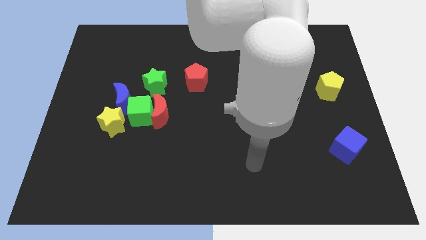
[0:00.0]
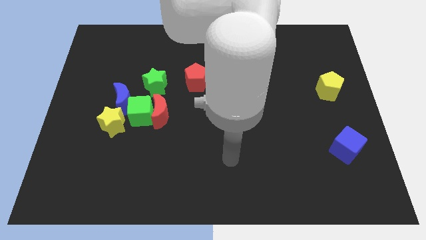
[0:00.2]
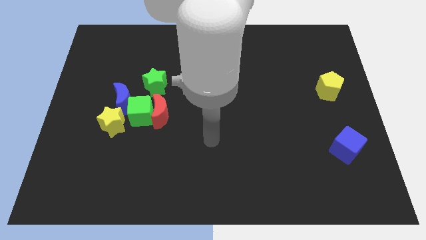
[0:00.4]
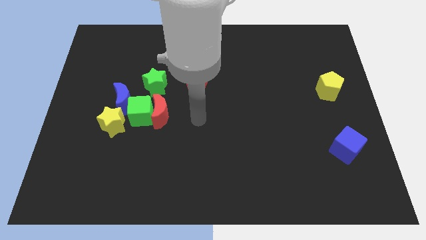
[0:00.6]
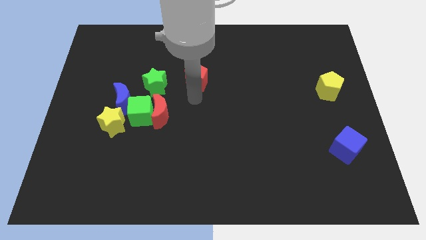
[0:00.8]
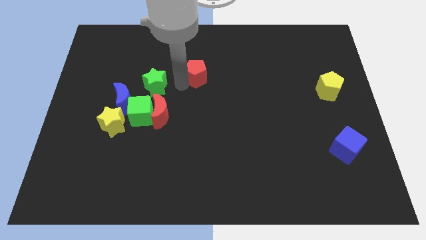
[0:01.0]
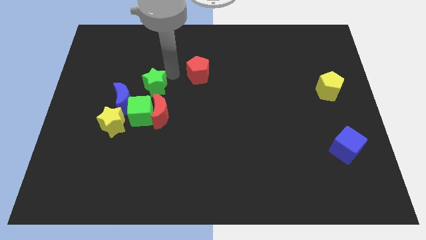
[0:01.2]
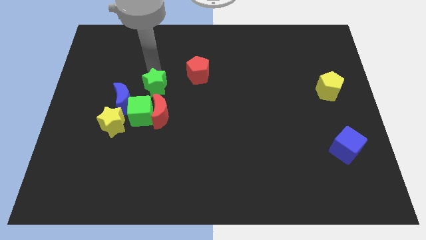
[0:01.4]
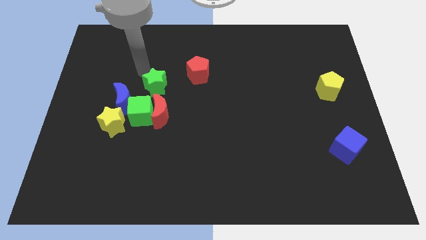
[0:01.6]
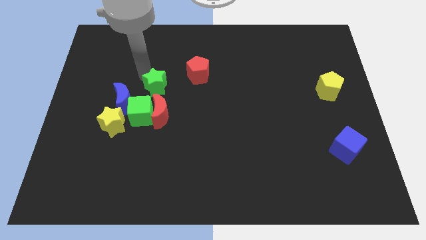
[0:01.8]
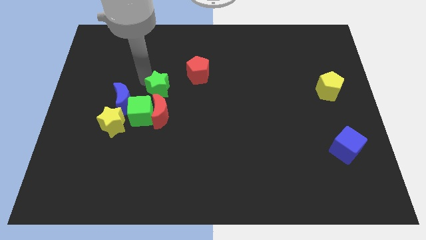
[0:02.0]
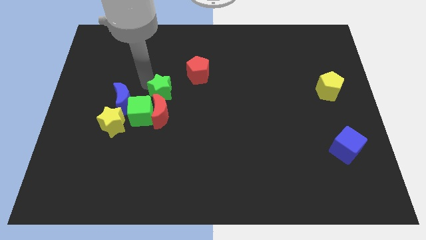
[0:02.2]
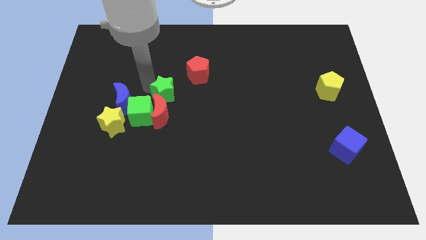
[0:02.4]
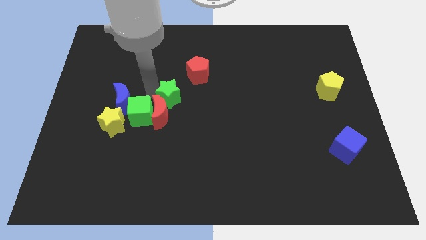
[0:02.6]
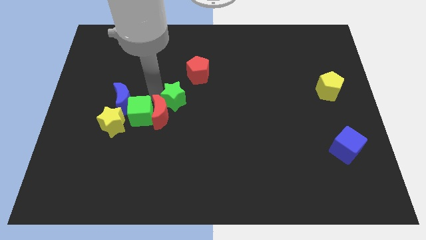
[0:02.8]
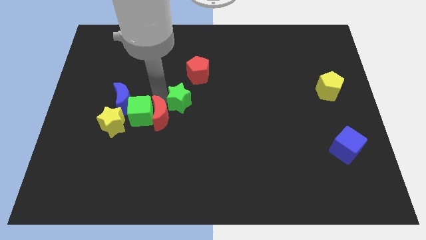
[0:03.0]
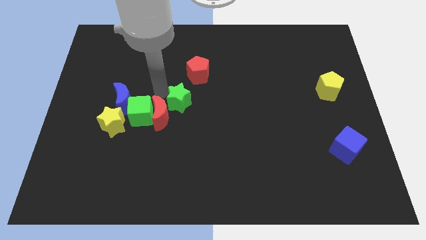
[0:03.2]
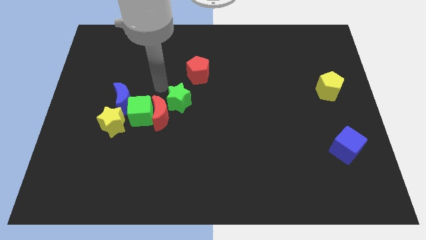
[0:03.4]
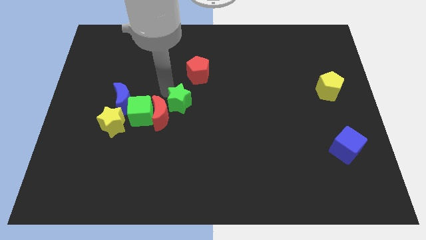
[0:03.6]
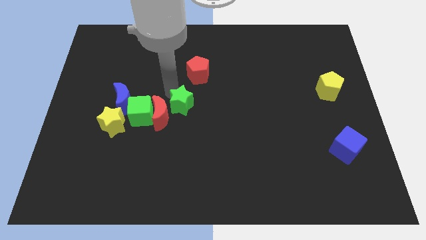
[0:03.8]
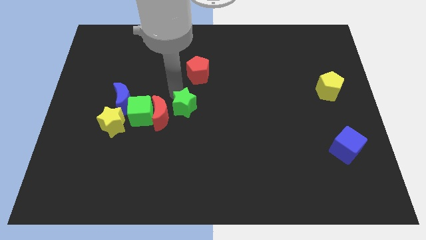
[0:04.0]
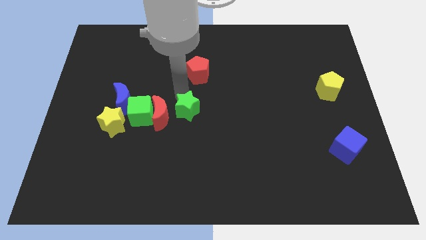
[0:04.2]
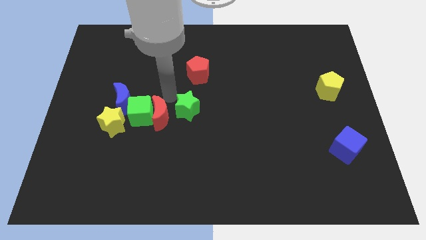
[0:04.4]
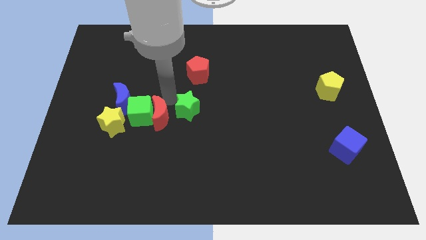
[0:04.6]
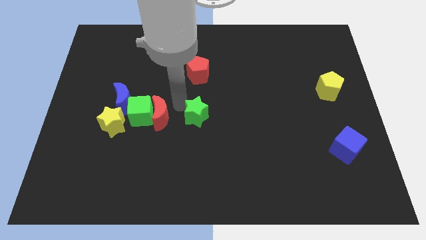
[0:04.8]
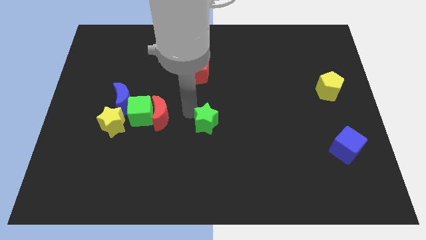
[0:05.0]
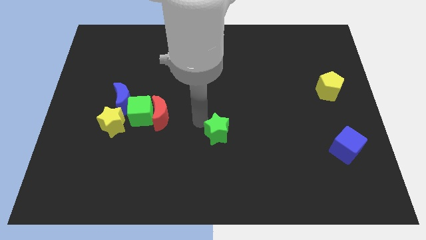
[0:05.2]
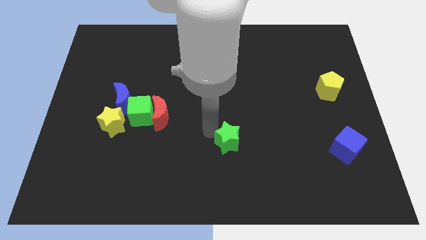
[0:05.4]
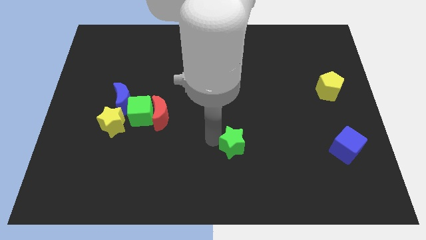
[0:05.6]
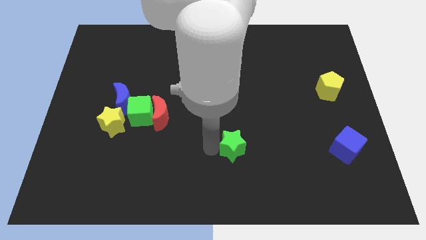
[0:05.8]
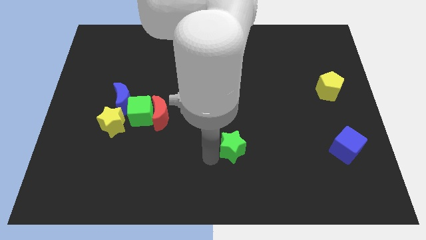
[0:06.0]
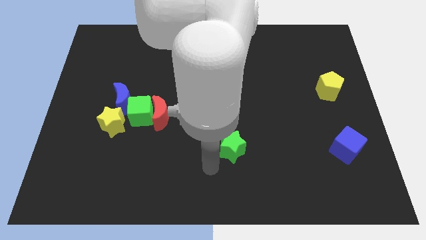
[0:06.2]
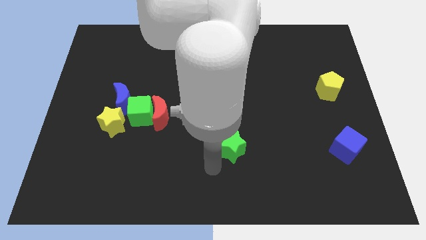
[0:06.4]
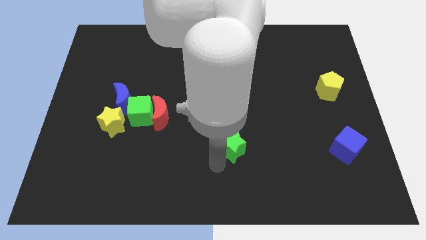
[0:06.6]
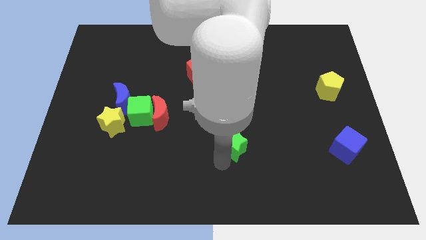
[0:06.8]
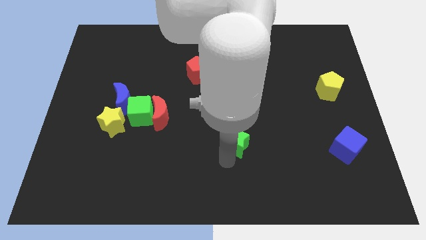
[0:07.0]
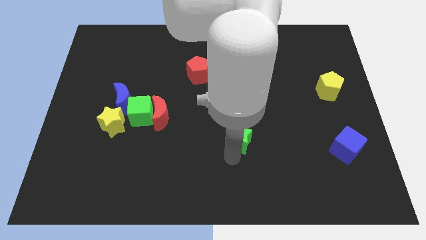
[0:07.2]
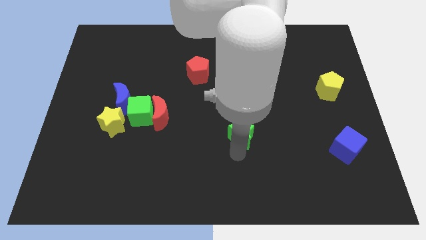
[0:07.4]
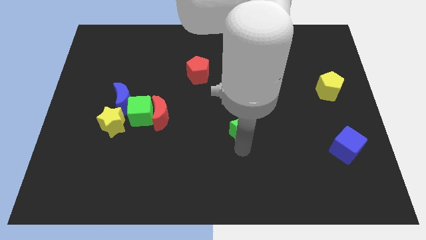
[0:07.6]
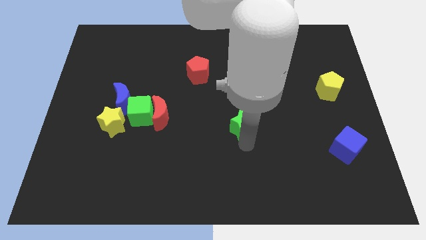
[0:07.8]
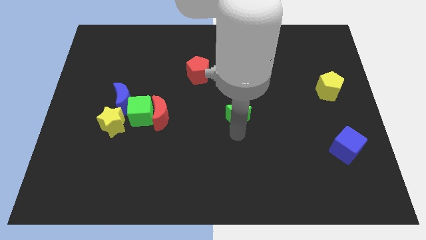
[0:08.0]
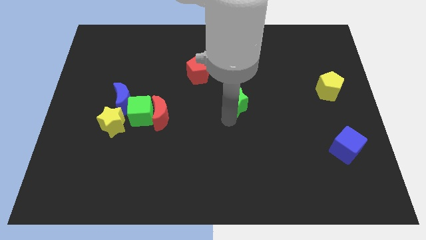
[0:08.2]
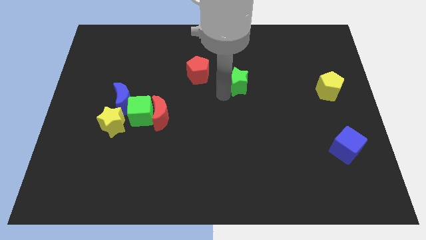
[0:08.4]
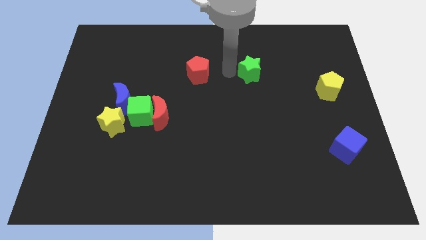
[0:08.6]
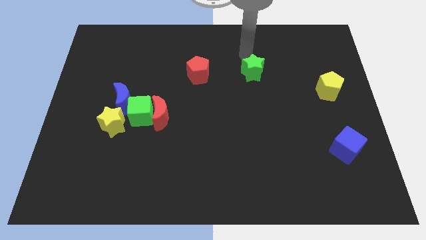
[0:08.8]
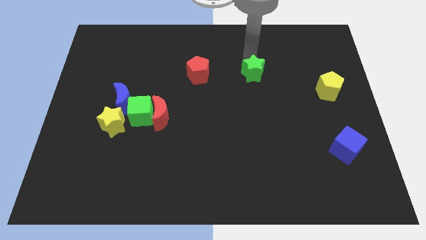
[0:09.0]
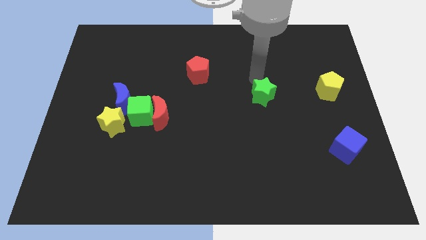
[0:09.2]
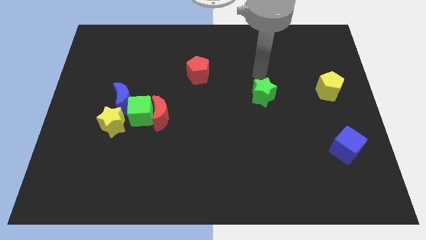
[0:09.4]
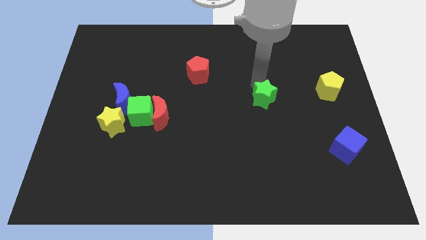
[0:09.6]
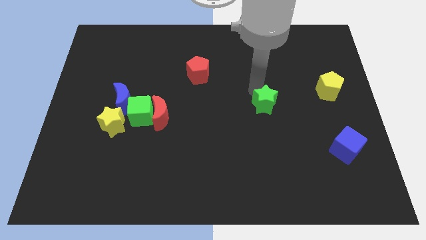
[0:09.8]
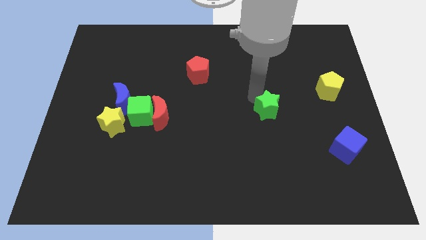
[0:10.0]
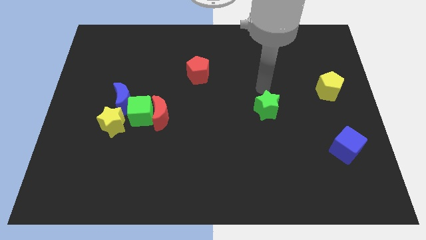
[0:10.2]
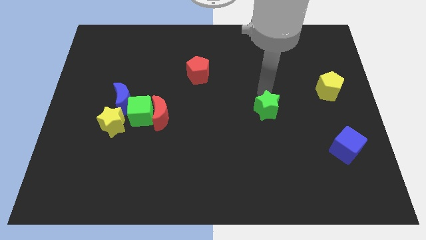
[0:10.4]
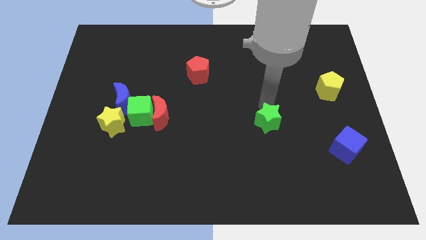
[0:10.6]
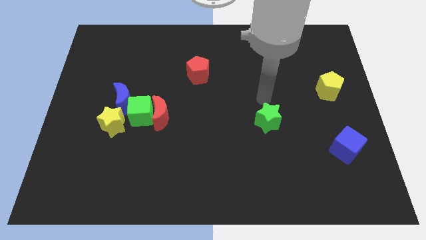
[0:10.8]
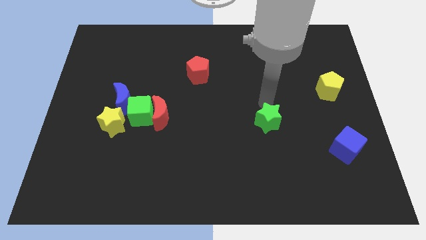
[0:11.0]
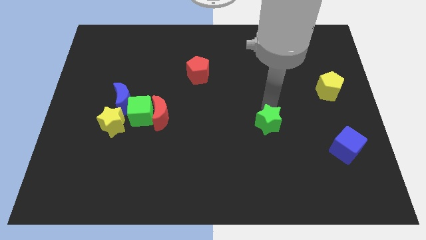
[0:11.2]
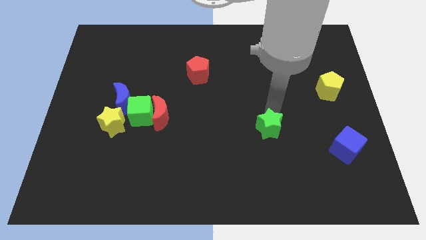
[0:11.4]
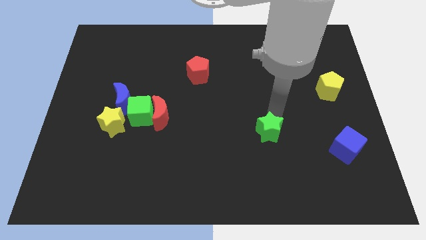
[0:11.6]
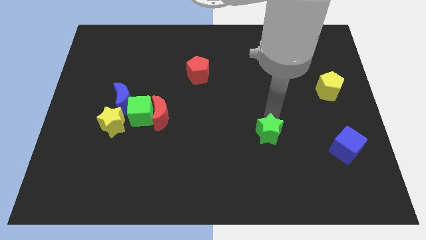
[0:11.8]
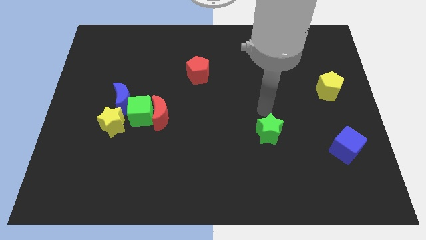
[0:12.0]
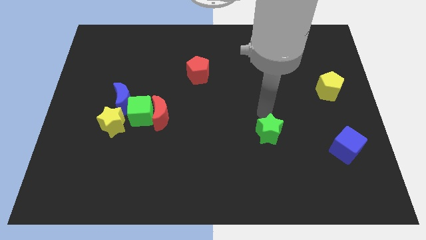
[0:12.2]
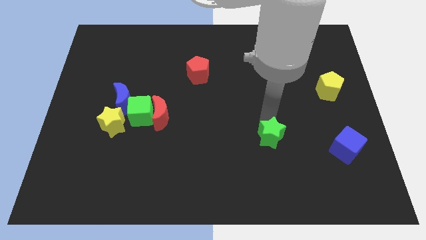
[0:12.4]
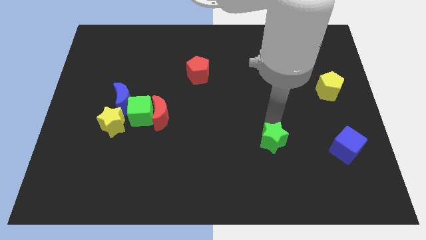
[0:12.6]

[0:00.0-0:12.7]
push the green star to the left side of the blue cube

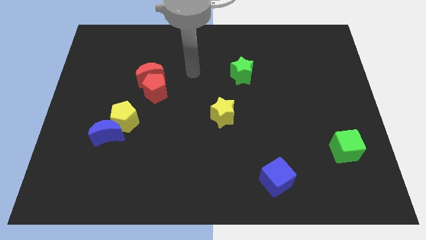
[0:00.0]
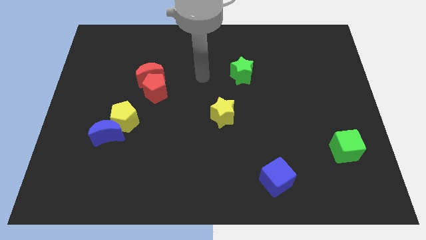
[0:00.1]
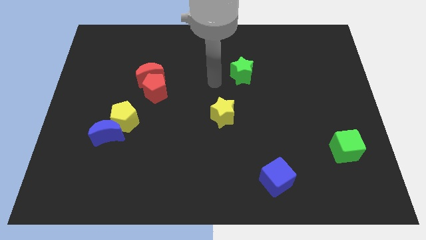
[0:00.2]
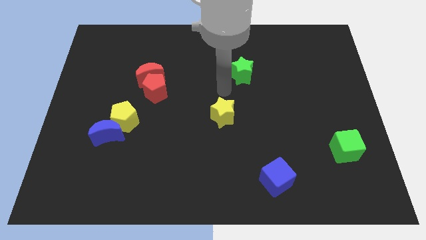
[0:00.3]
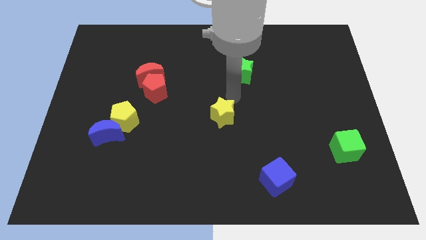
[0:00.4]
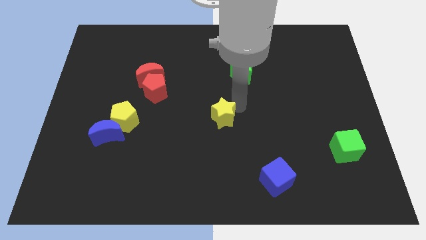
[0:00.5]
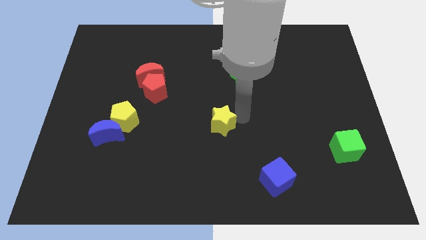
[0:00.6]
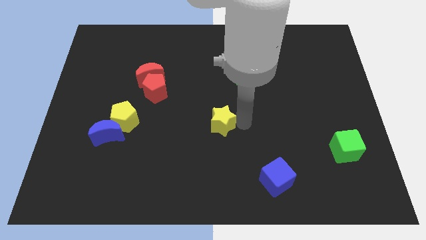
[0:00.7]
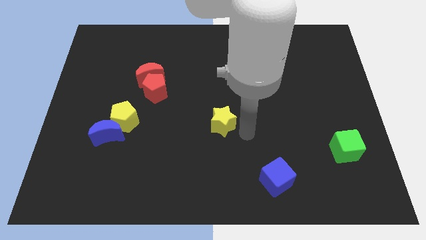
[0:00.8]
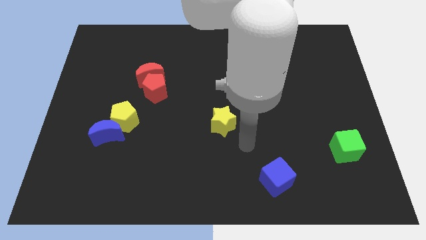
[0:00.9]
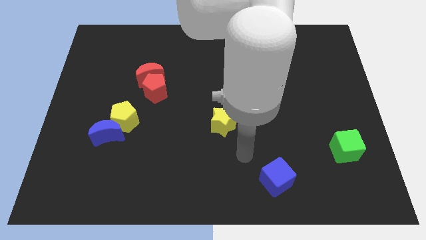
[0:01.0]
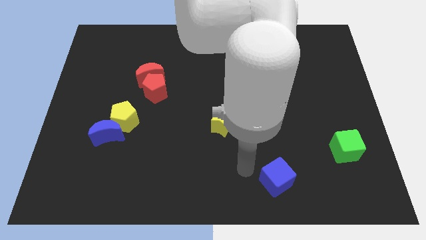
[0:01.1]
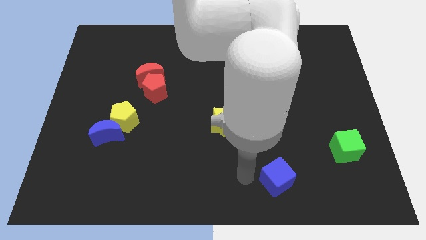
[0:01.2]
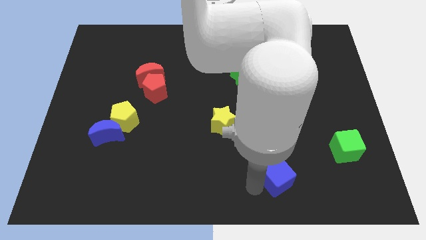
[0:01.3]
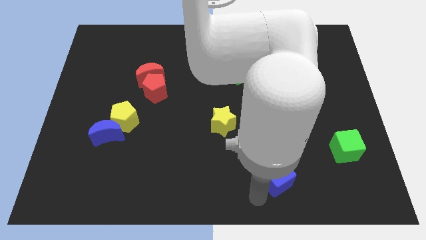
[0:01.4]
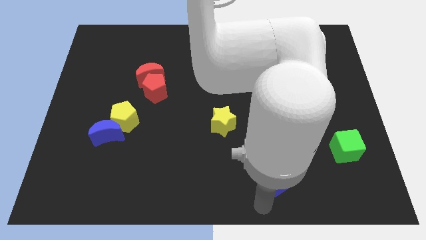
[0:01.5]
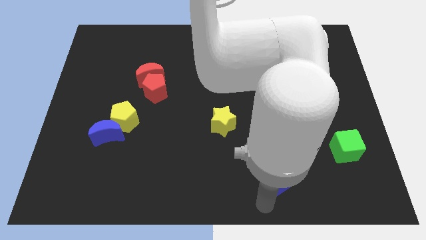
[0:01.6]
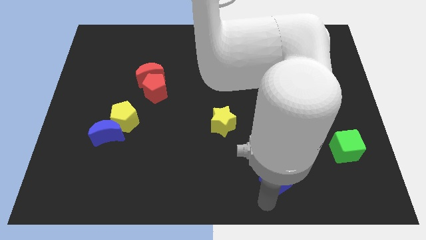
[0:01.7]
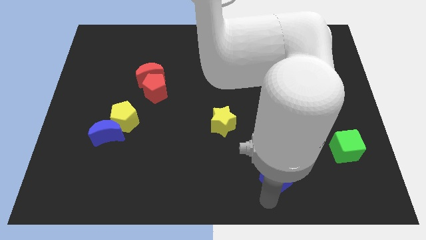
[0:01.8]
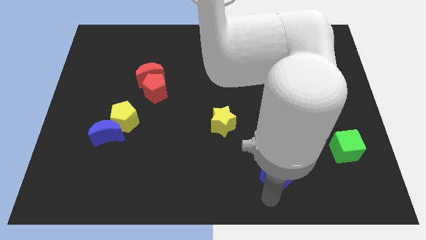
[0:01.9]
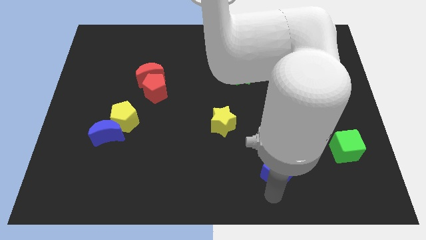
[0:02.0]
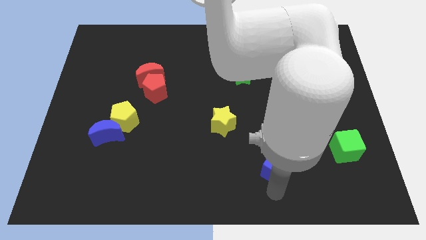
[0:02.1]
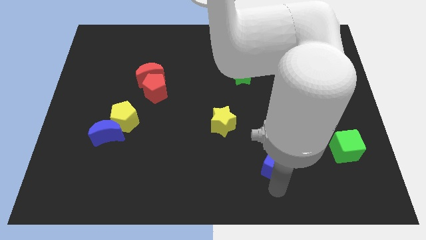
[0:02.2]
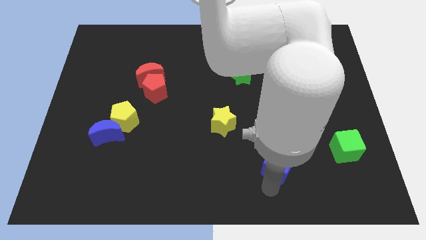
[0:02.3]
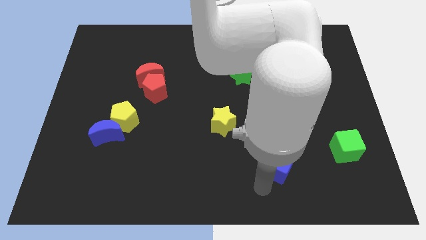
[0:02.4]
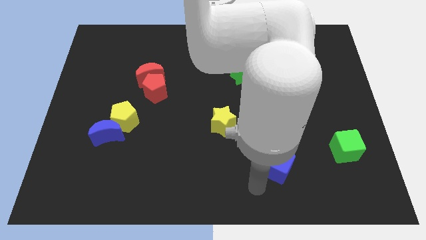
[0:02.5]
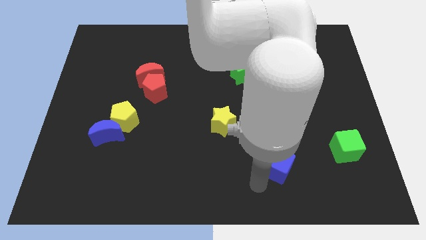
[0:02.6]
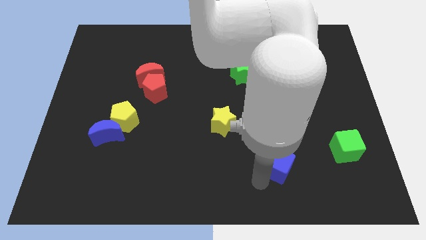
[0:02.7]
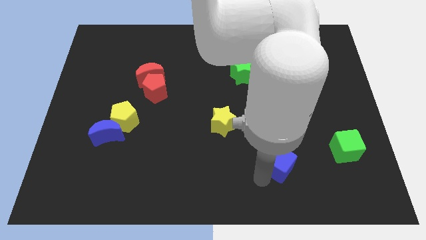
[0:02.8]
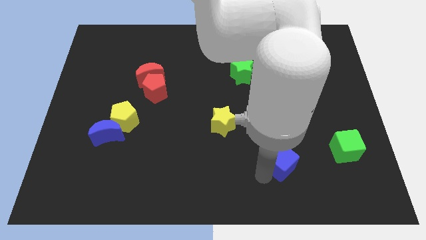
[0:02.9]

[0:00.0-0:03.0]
slide the blue cube to the left side of the green cube
